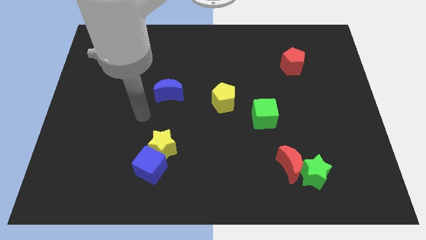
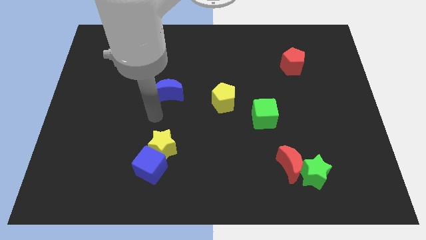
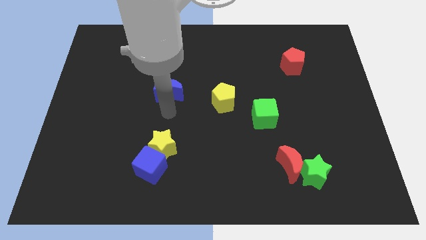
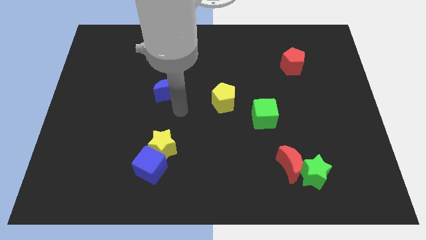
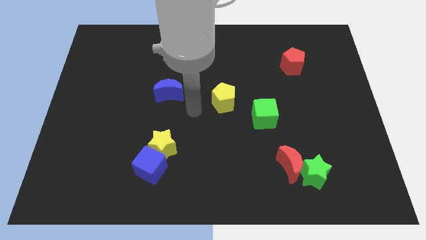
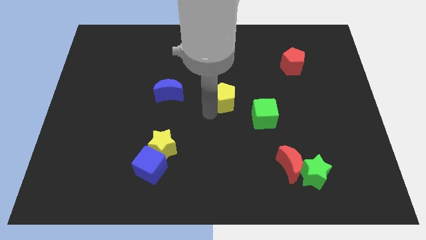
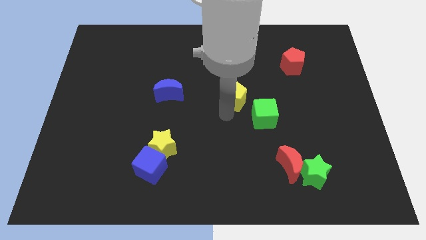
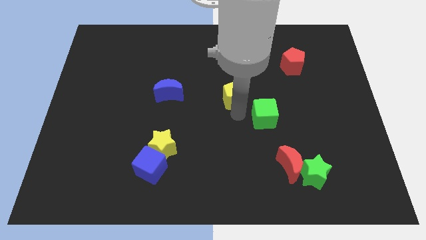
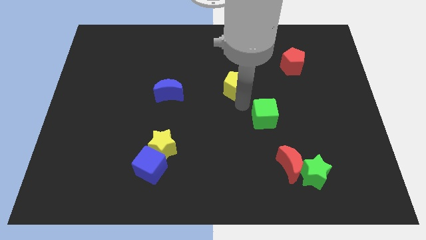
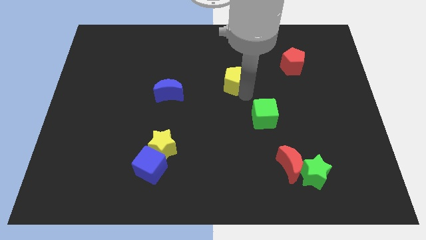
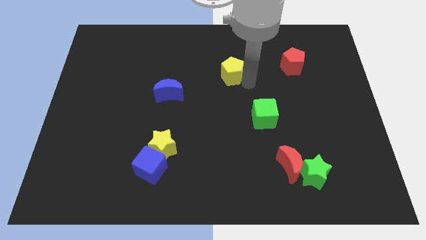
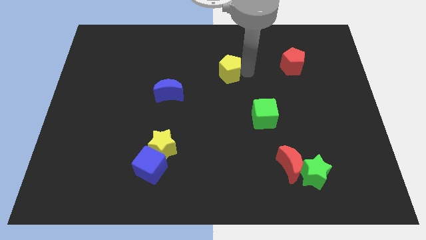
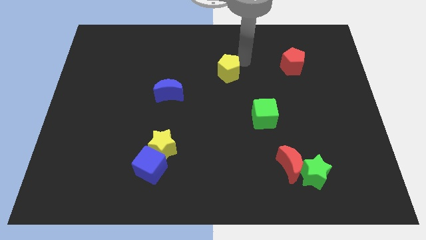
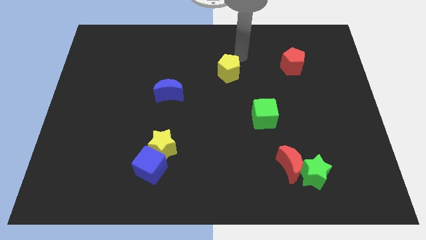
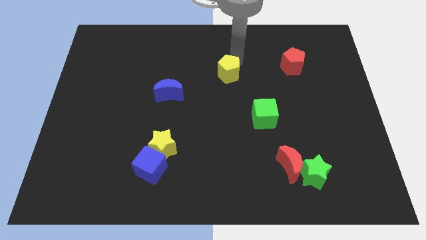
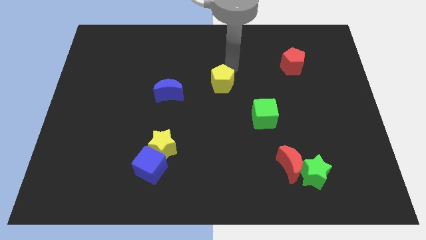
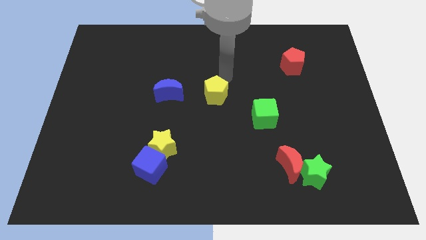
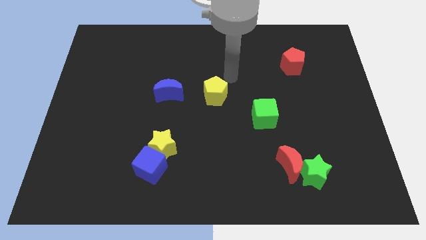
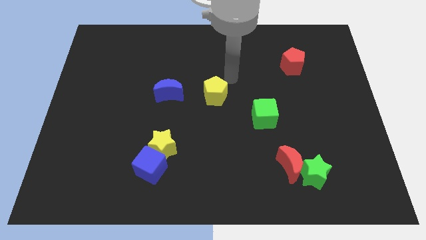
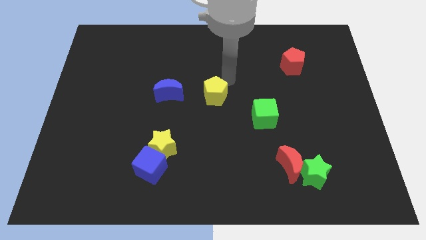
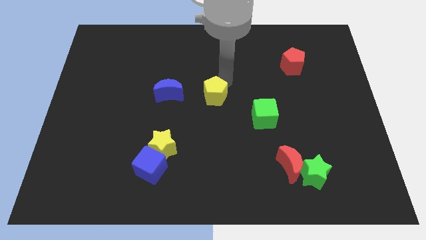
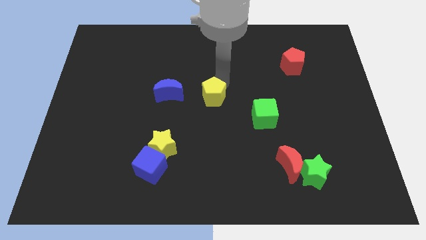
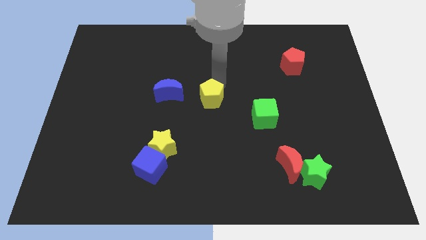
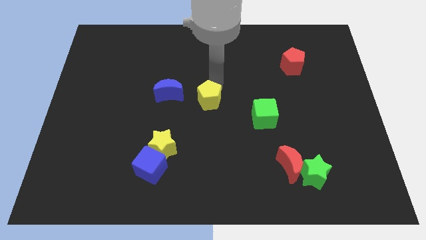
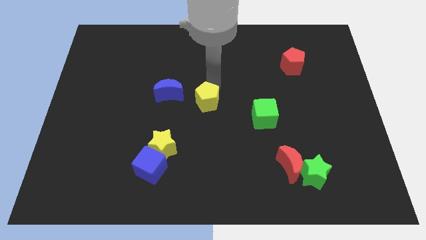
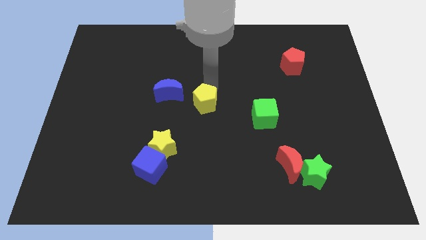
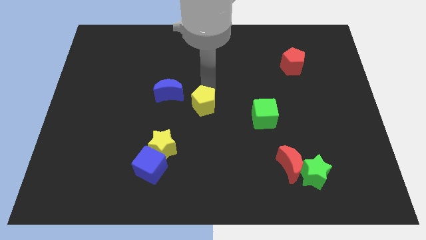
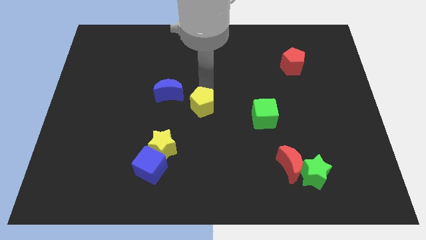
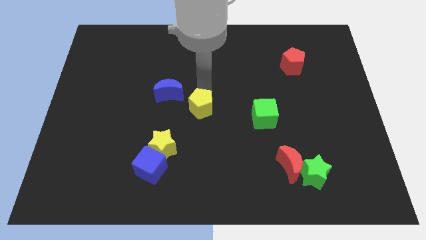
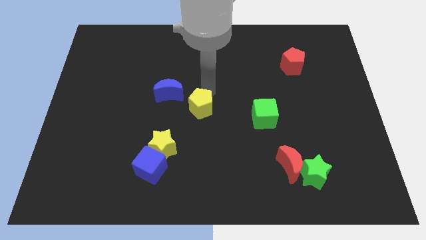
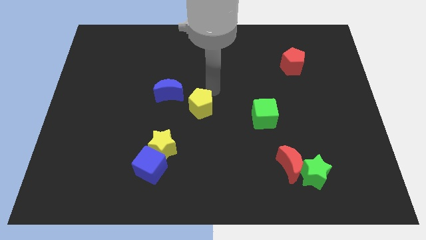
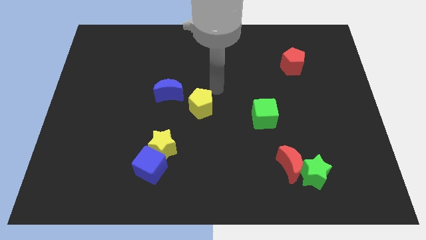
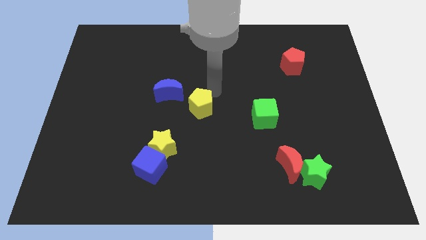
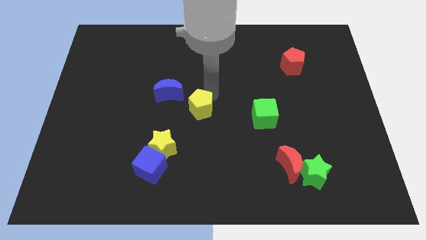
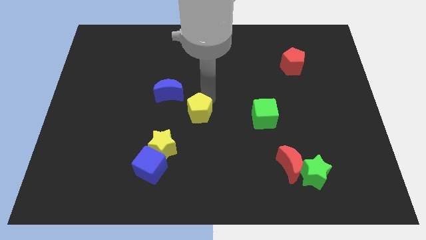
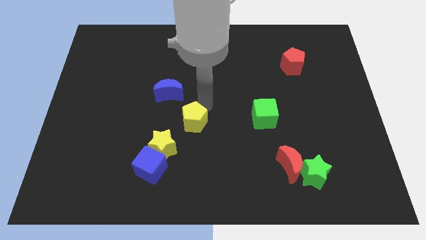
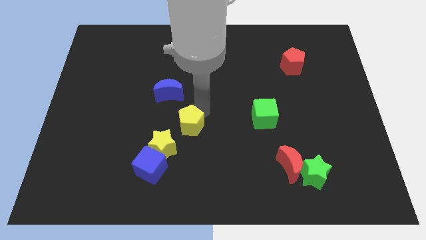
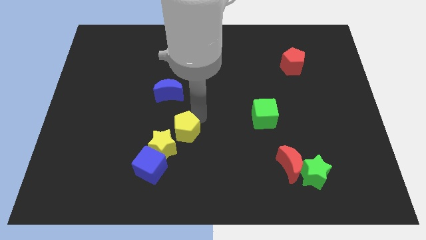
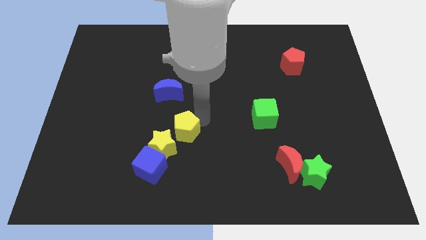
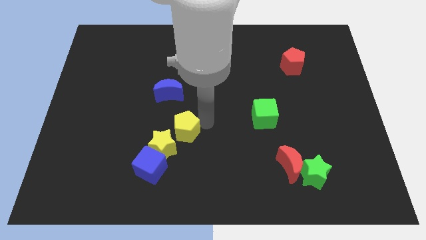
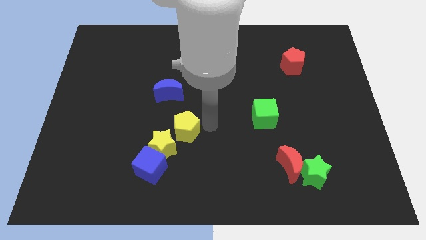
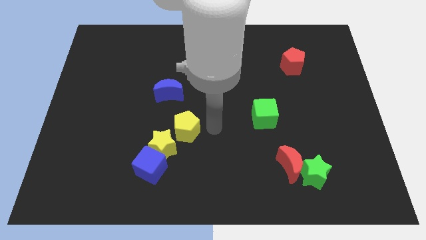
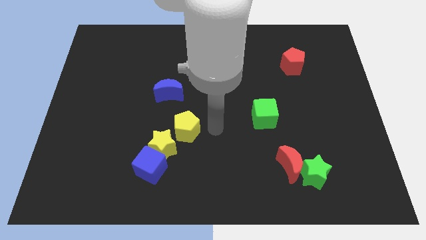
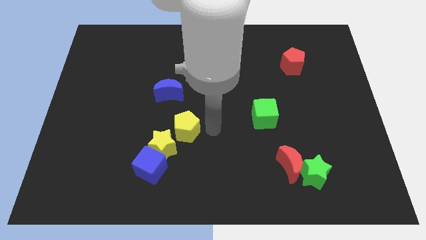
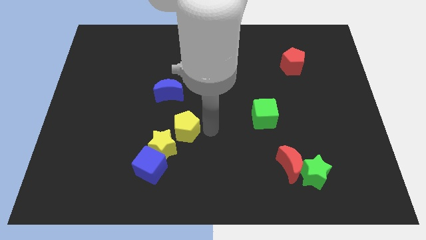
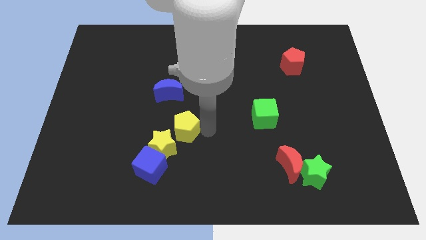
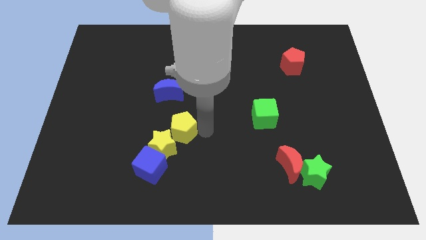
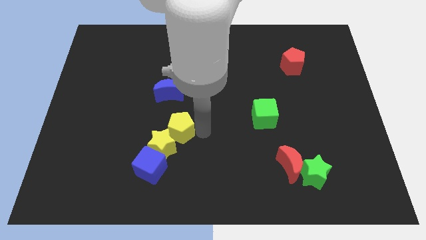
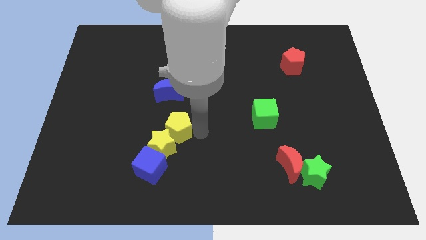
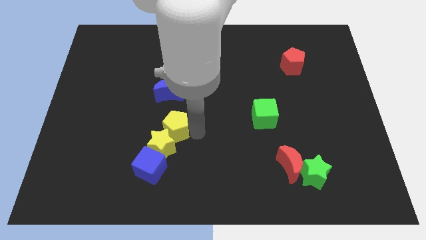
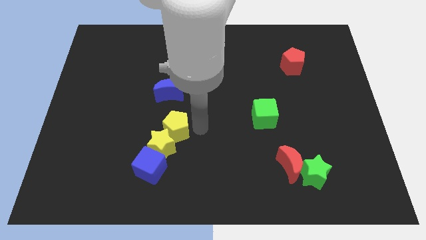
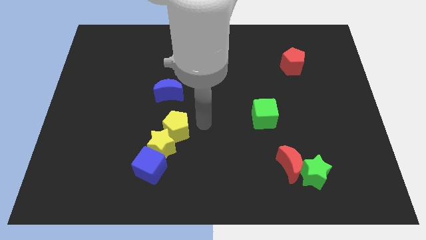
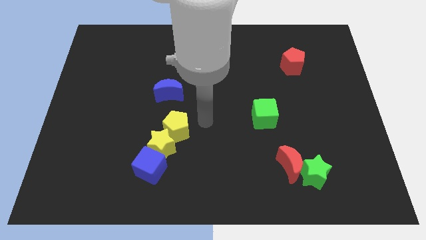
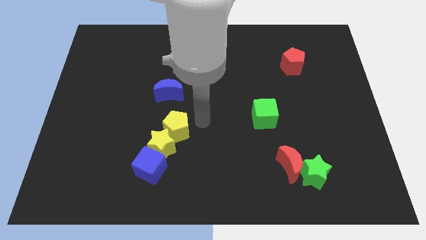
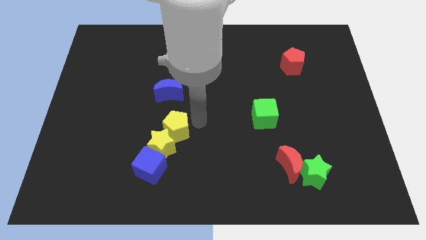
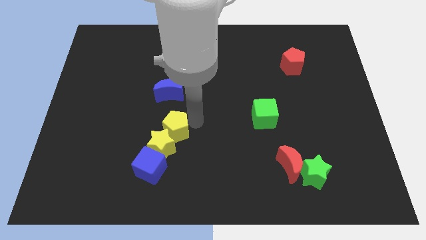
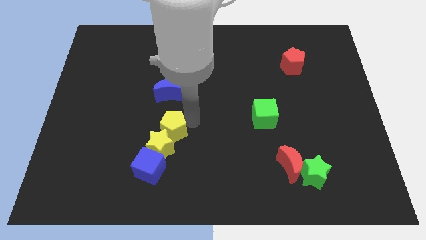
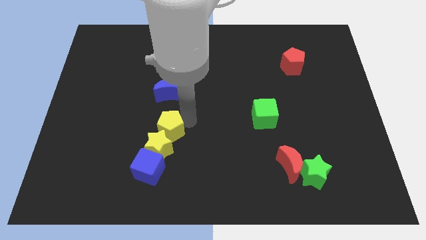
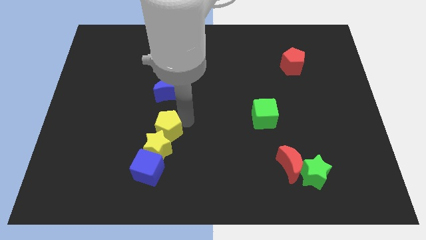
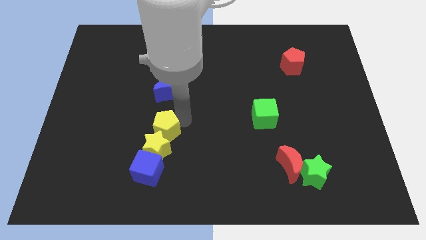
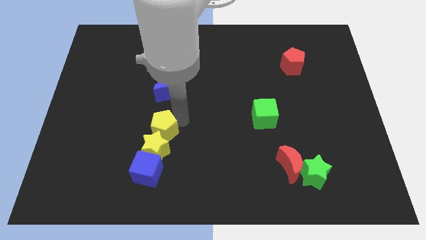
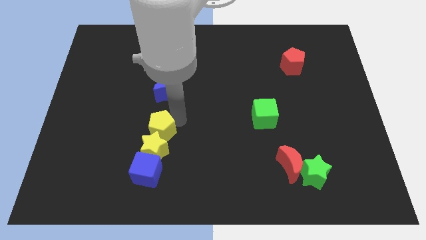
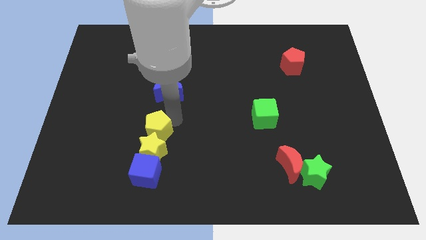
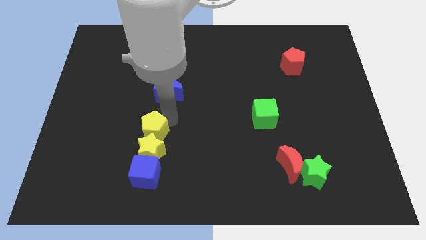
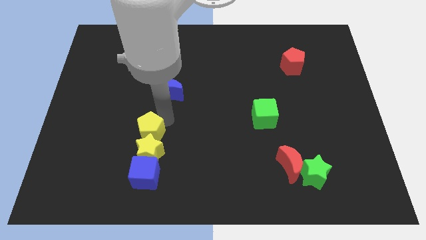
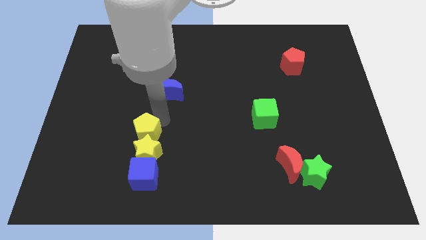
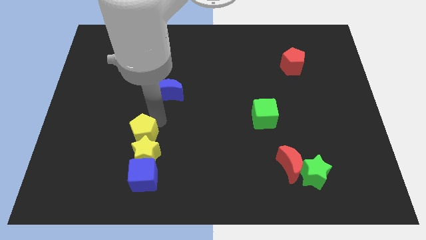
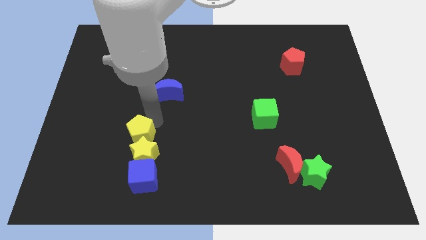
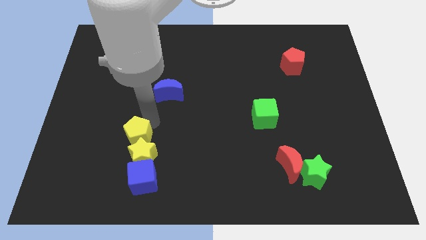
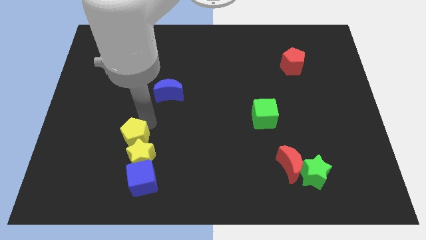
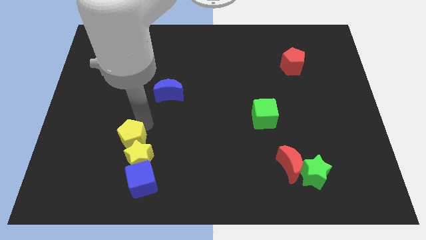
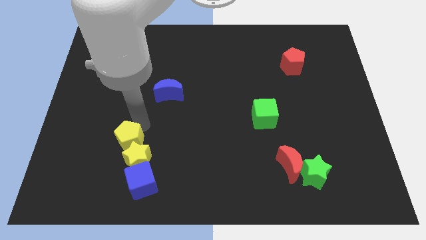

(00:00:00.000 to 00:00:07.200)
move the yellow pentagon to the top left of the blue cube
